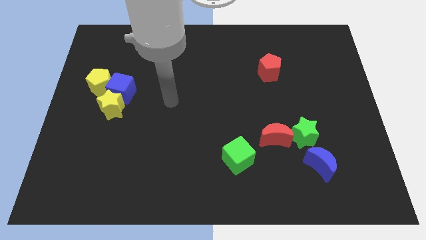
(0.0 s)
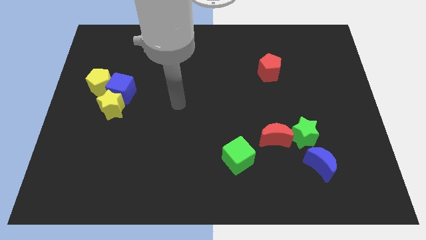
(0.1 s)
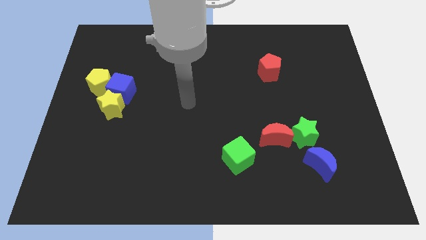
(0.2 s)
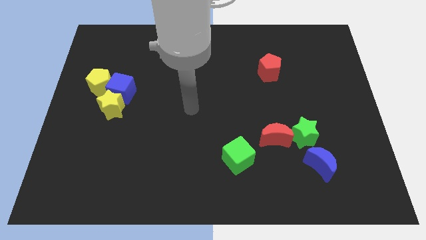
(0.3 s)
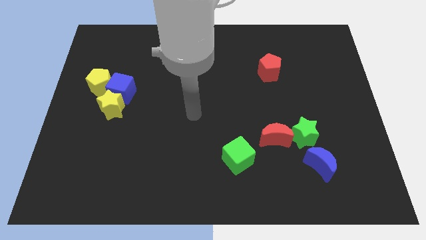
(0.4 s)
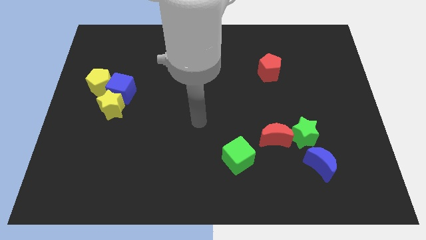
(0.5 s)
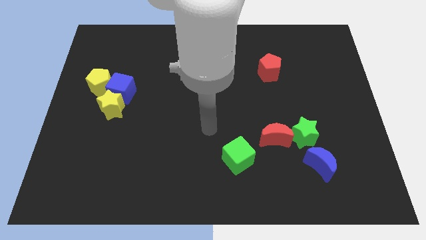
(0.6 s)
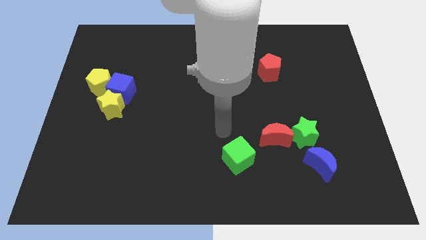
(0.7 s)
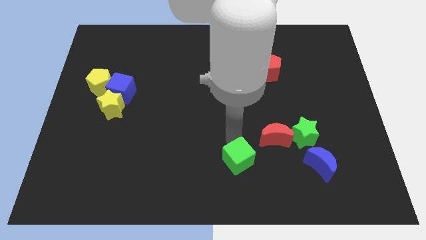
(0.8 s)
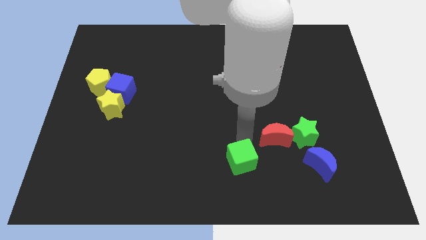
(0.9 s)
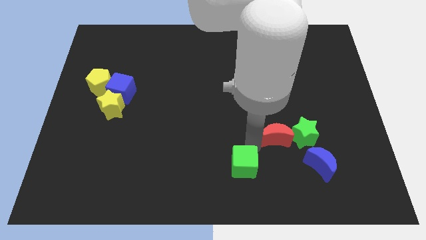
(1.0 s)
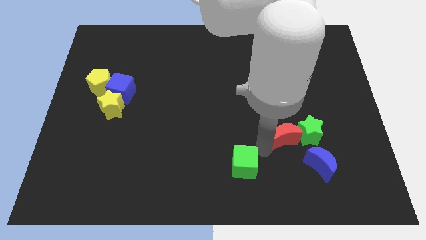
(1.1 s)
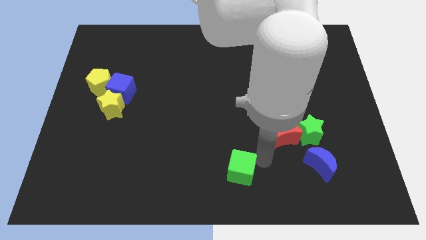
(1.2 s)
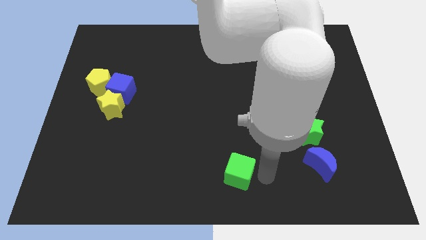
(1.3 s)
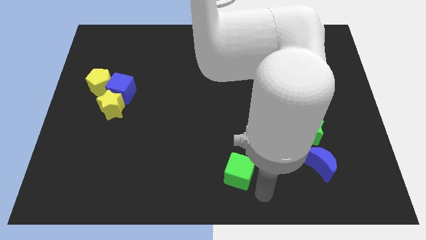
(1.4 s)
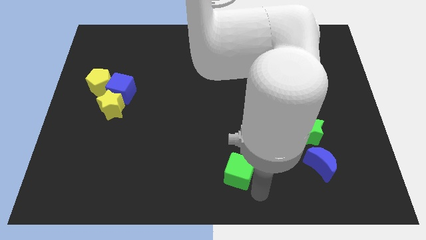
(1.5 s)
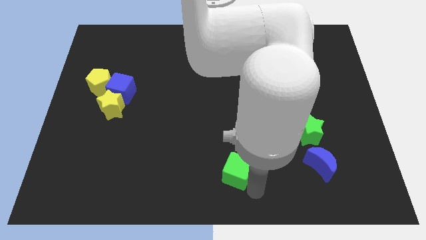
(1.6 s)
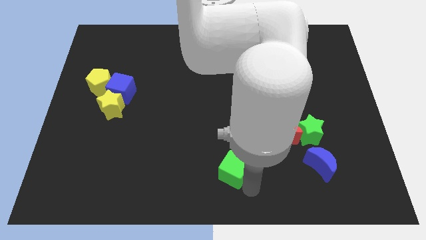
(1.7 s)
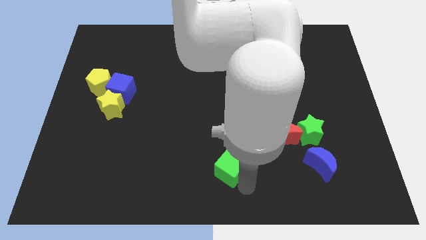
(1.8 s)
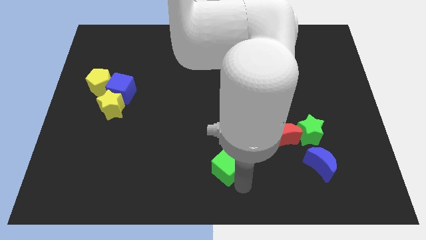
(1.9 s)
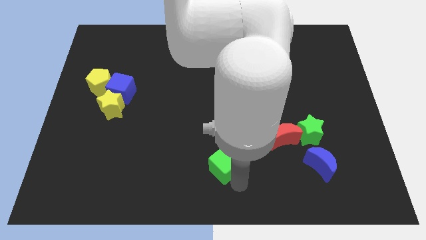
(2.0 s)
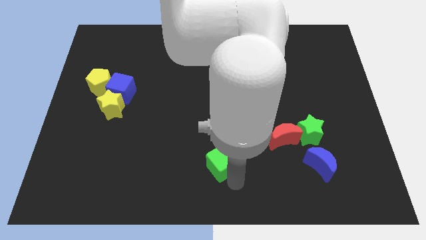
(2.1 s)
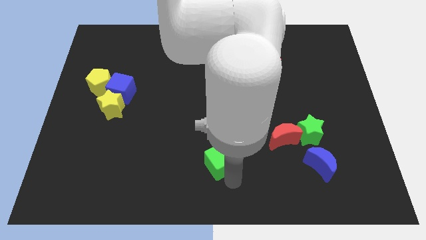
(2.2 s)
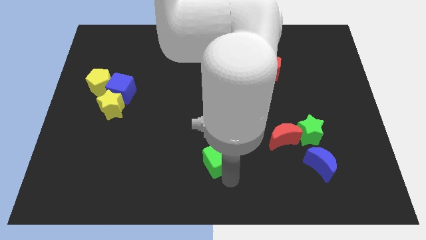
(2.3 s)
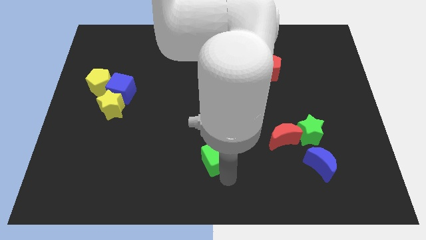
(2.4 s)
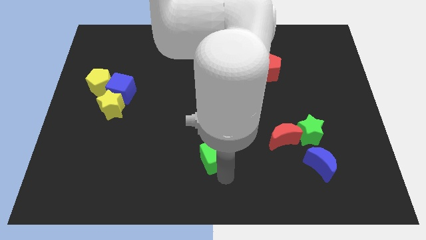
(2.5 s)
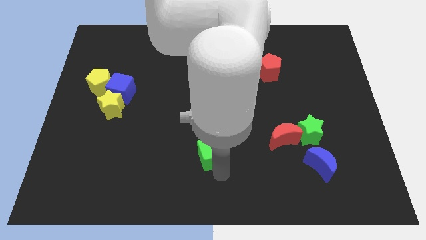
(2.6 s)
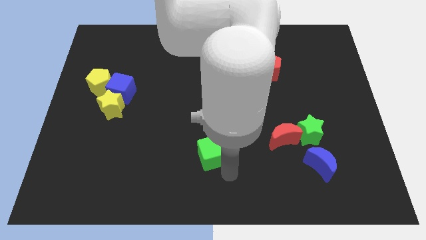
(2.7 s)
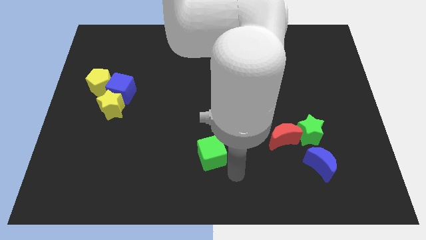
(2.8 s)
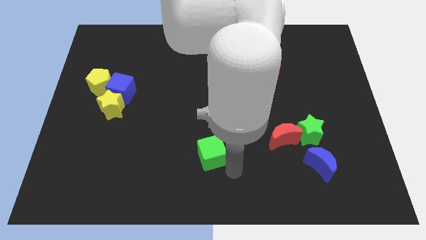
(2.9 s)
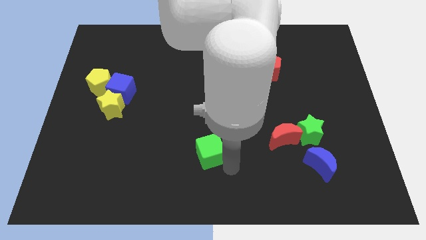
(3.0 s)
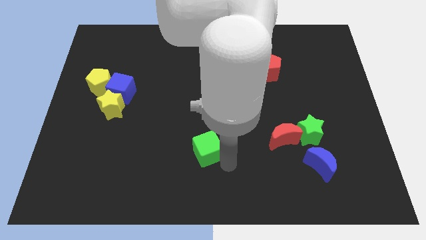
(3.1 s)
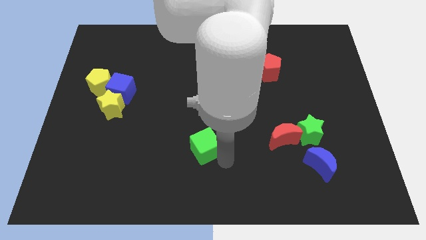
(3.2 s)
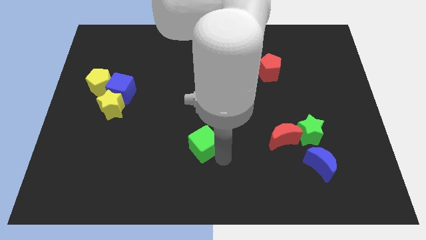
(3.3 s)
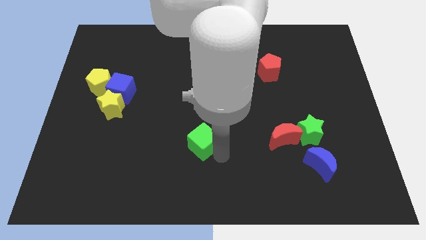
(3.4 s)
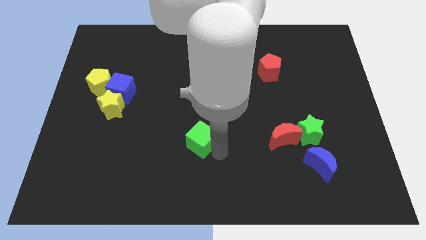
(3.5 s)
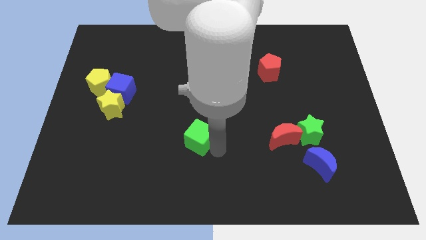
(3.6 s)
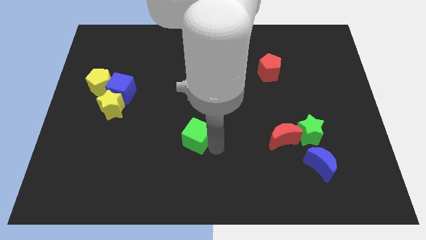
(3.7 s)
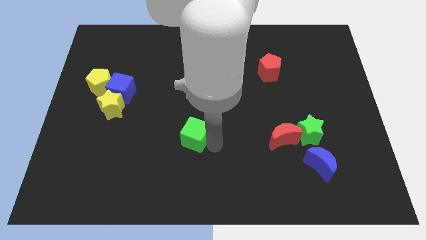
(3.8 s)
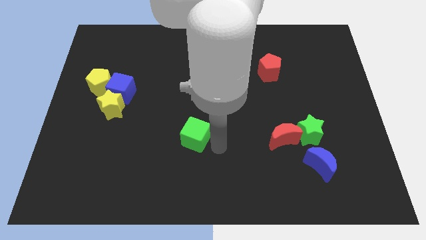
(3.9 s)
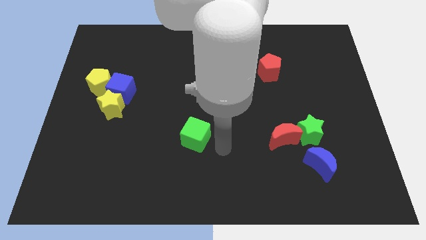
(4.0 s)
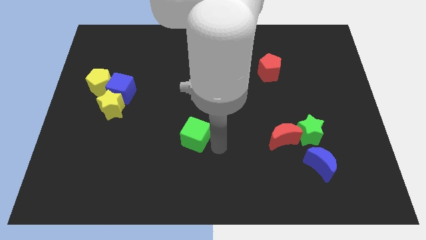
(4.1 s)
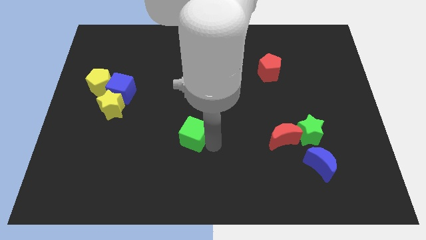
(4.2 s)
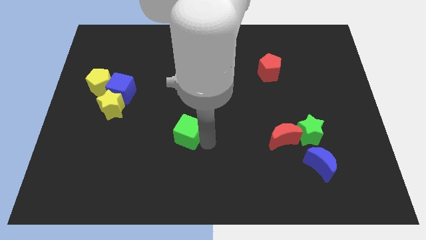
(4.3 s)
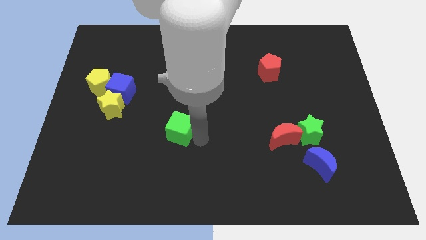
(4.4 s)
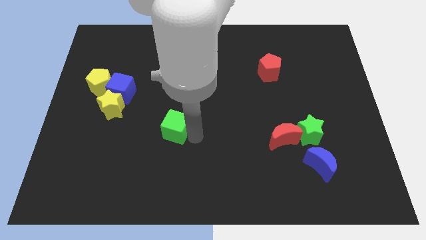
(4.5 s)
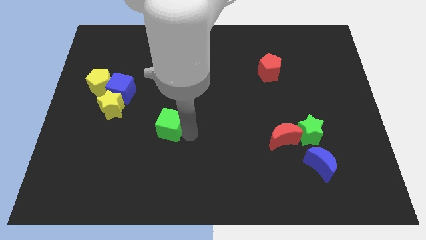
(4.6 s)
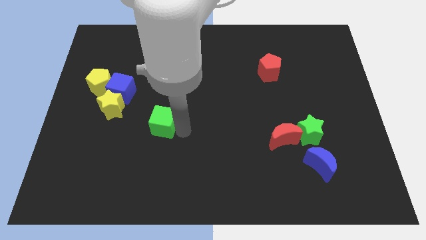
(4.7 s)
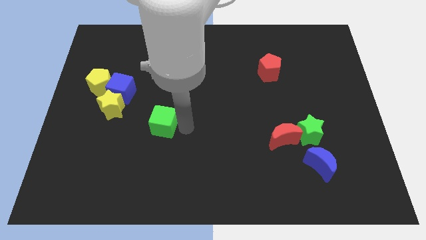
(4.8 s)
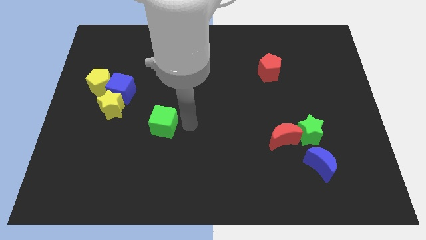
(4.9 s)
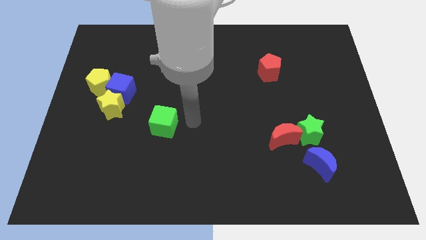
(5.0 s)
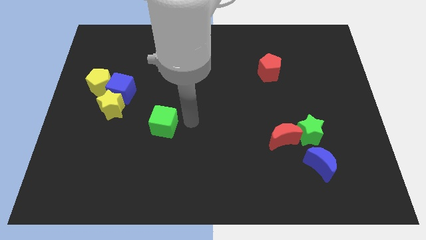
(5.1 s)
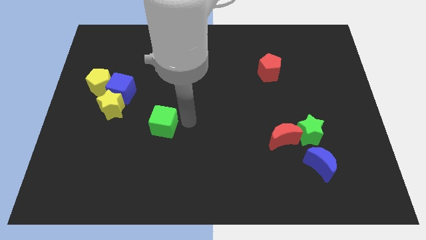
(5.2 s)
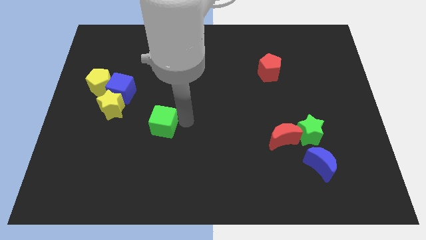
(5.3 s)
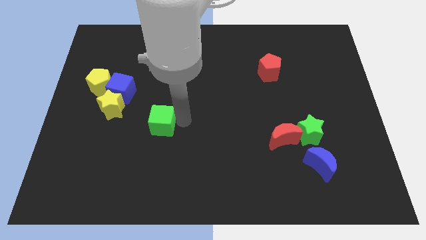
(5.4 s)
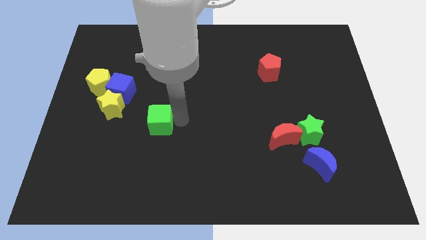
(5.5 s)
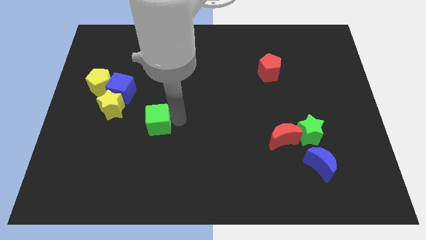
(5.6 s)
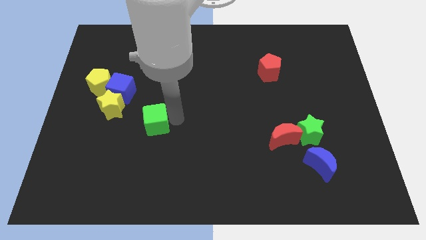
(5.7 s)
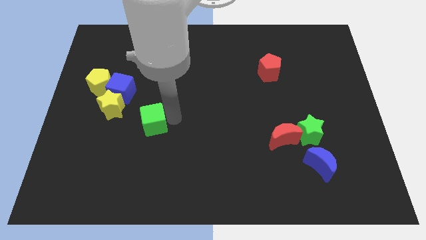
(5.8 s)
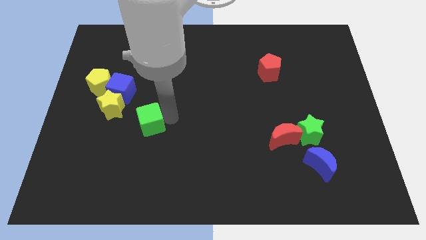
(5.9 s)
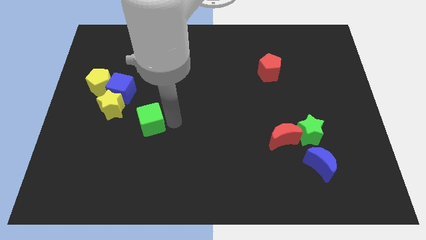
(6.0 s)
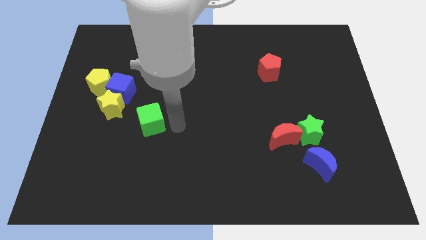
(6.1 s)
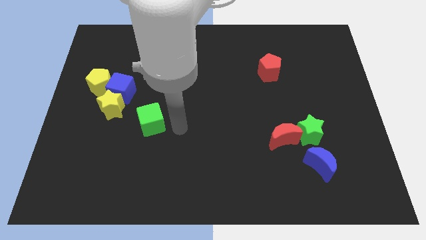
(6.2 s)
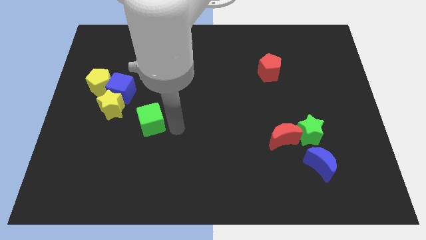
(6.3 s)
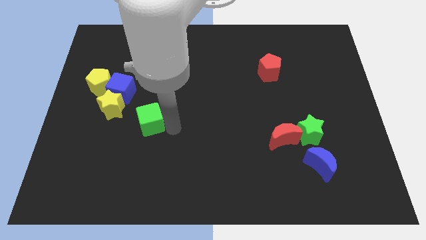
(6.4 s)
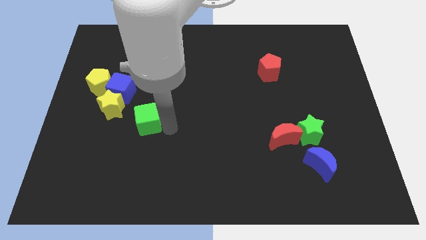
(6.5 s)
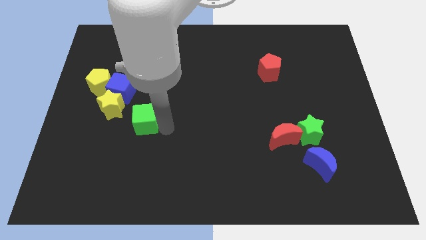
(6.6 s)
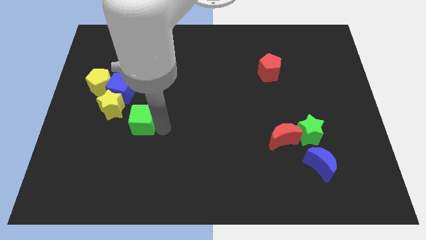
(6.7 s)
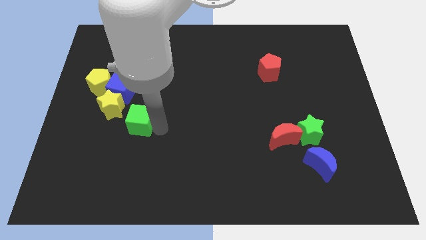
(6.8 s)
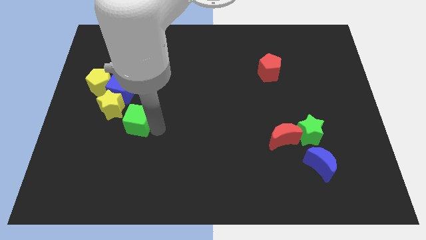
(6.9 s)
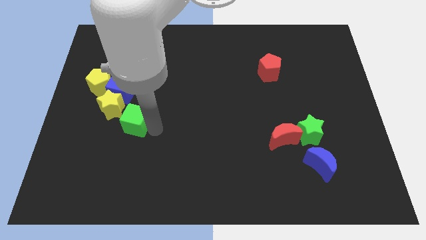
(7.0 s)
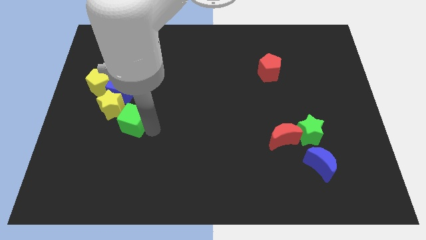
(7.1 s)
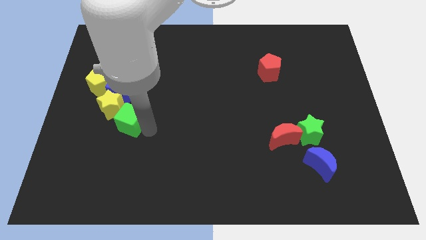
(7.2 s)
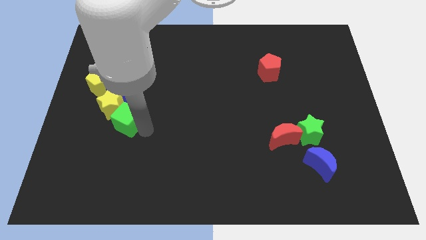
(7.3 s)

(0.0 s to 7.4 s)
slide the green cube towards the yellow star
